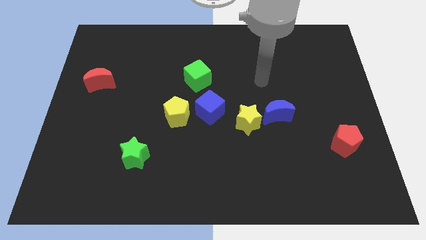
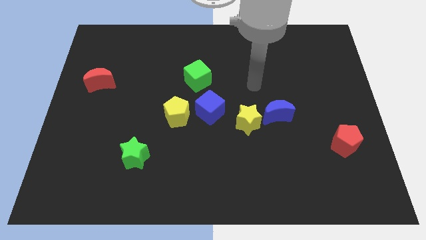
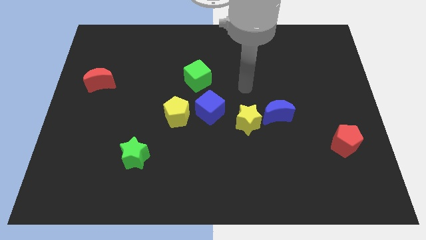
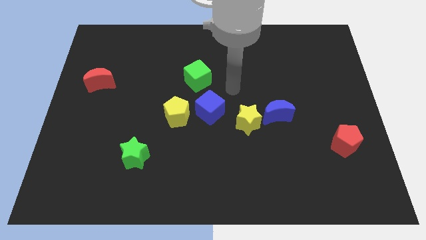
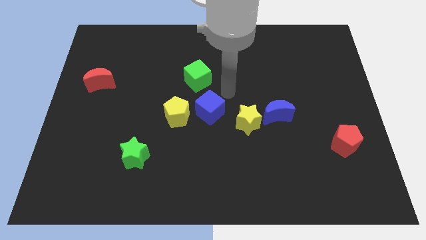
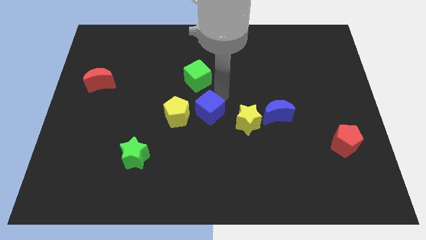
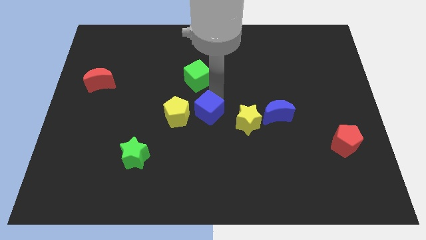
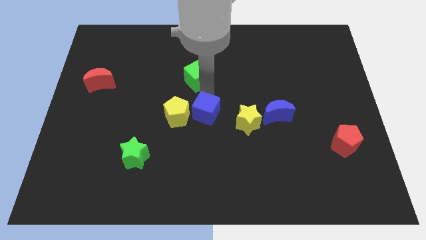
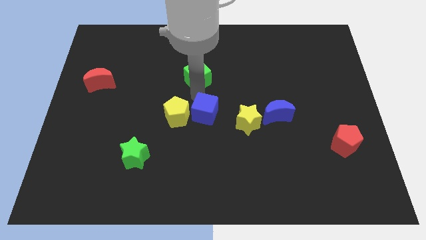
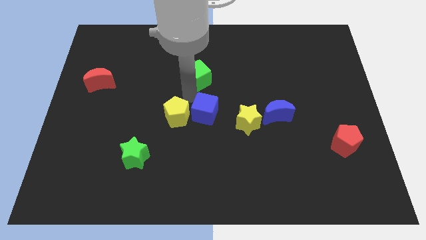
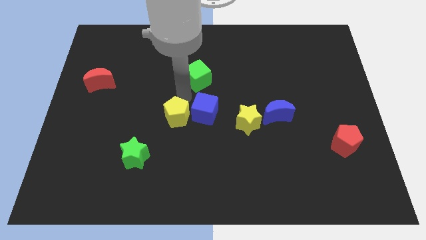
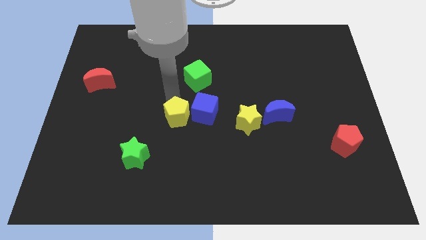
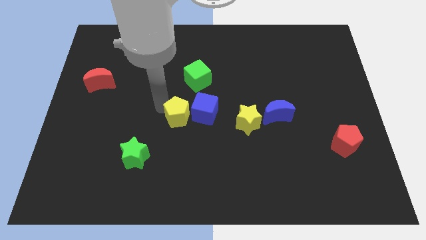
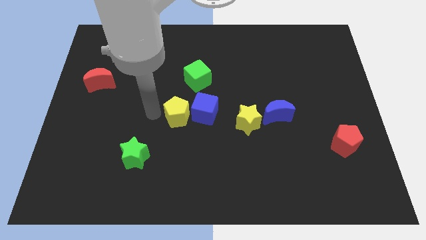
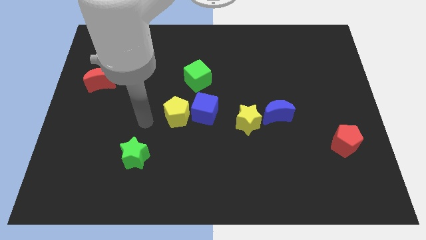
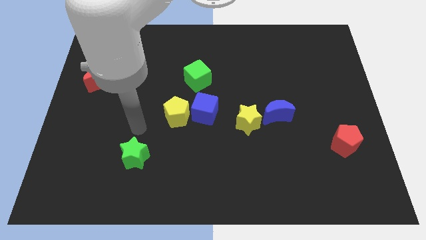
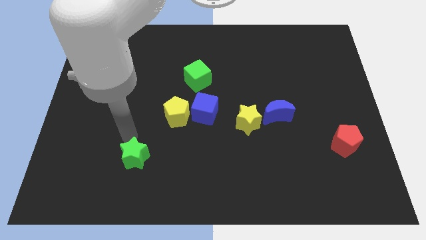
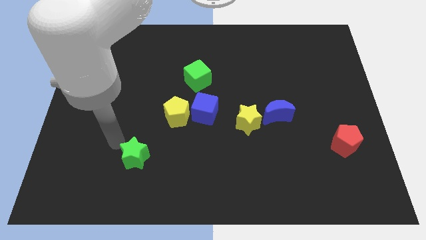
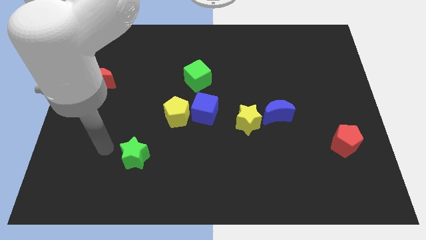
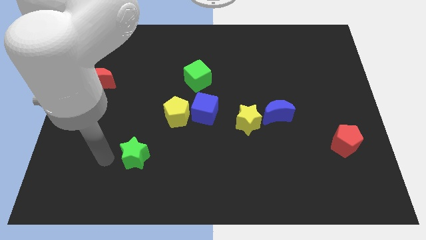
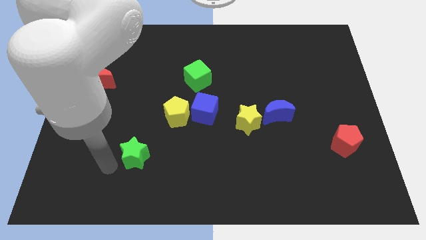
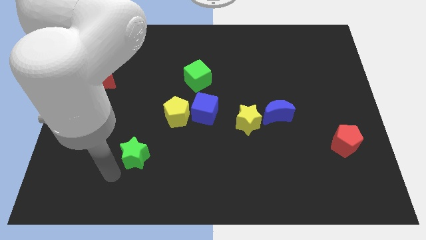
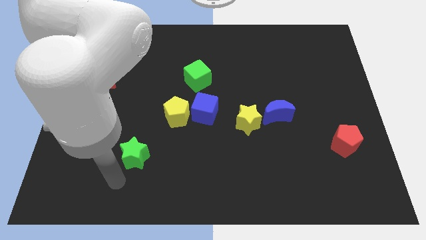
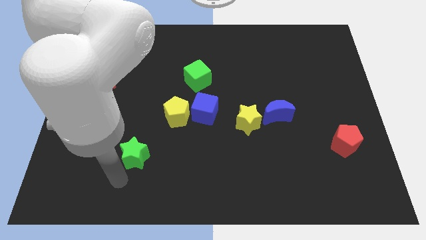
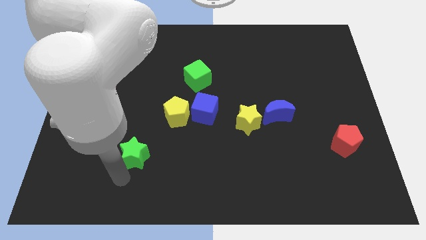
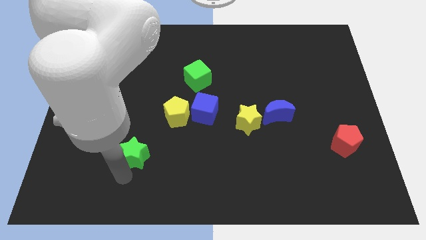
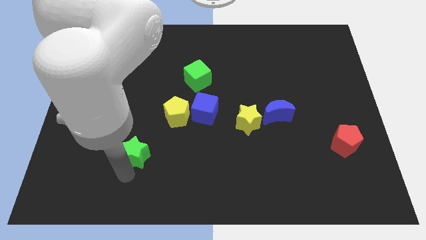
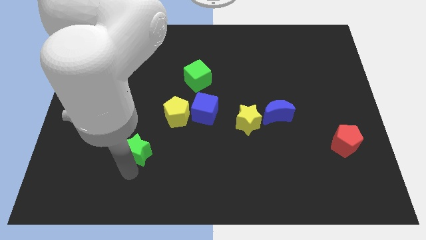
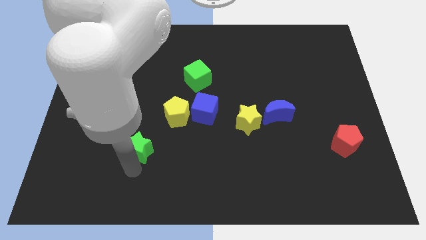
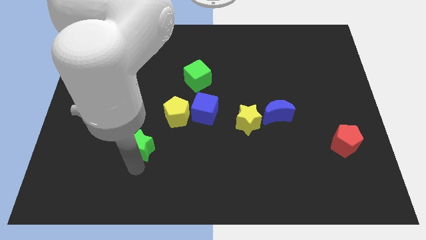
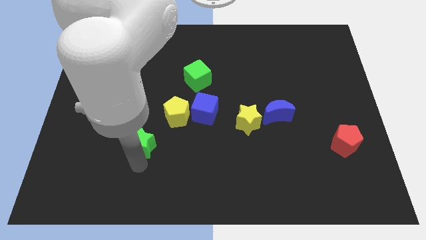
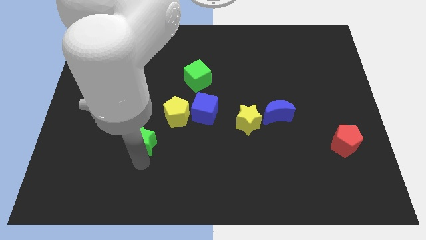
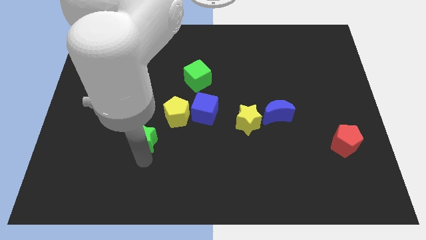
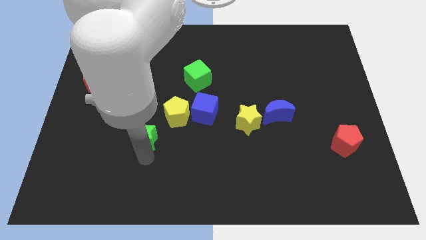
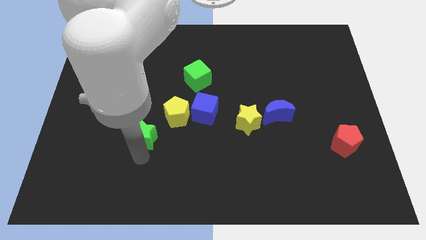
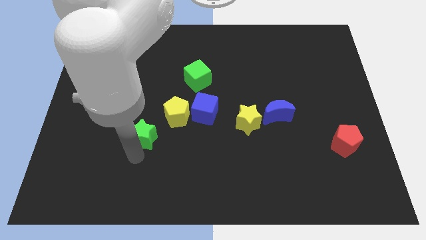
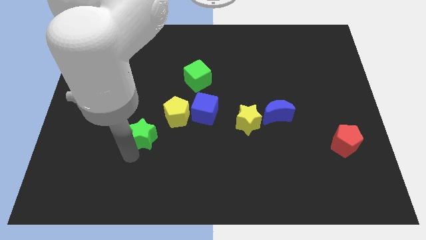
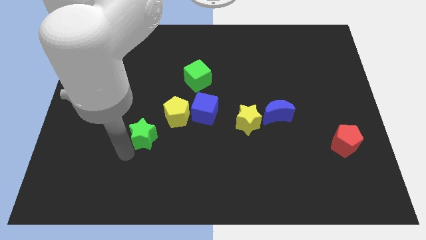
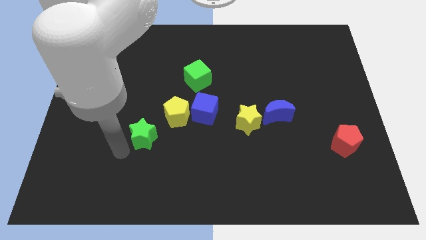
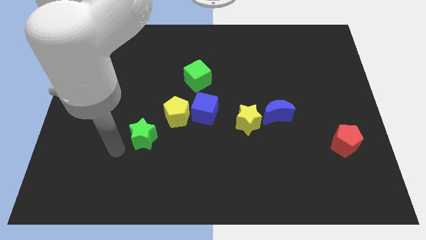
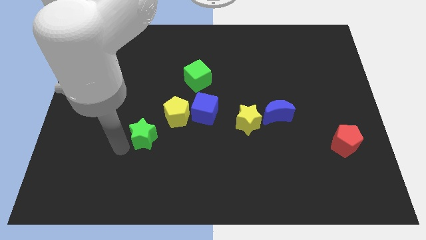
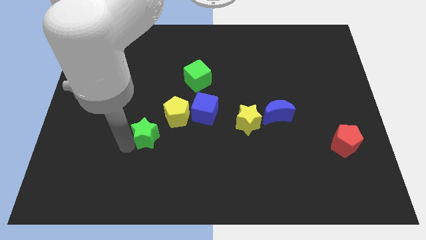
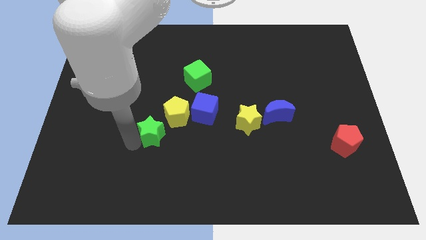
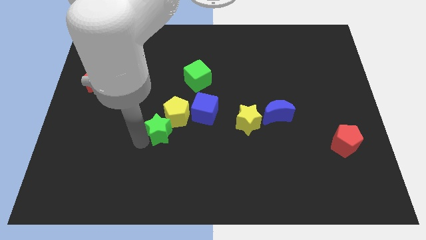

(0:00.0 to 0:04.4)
move the green star close to the yellow pentagon

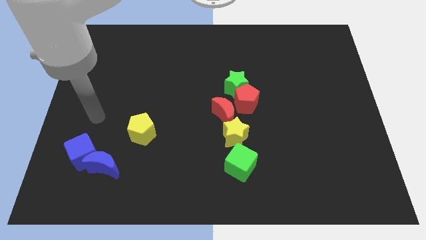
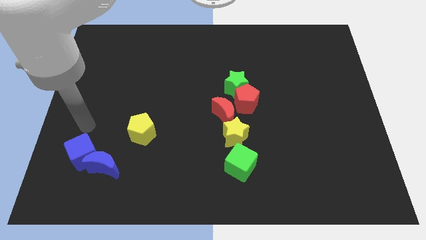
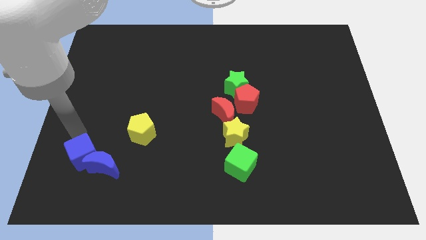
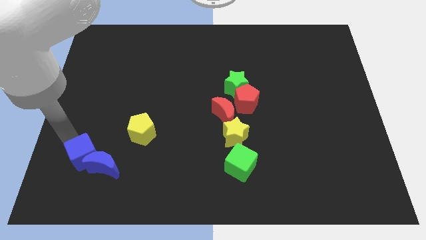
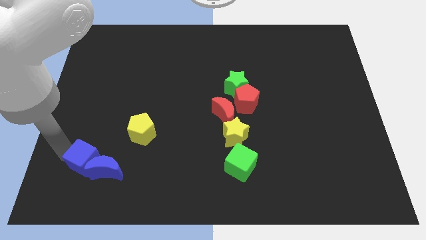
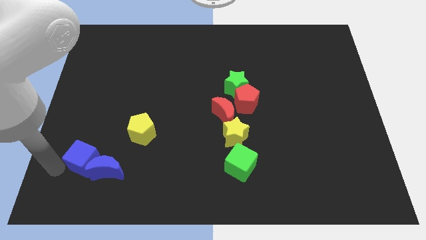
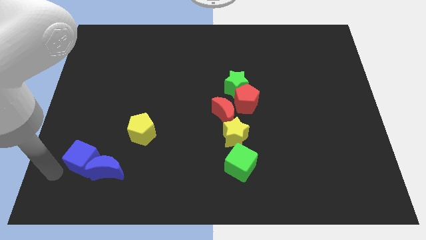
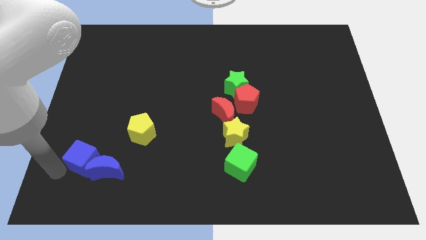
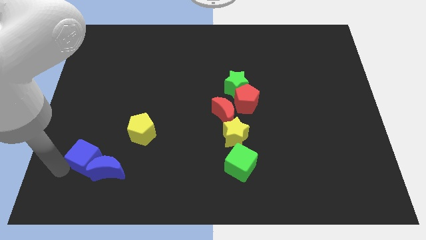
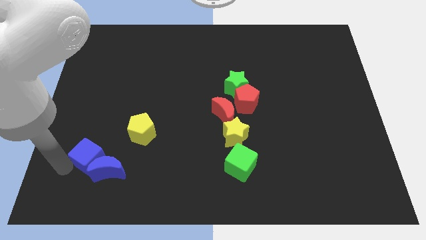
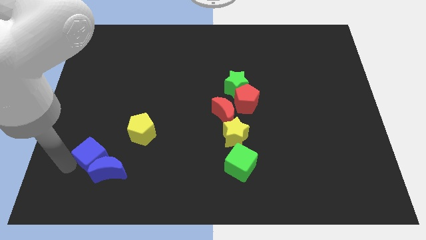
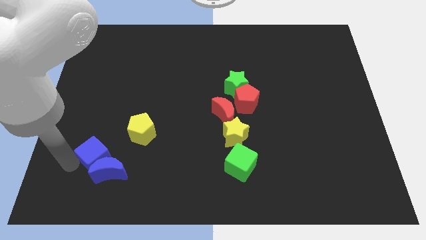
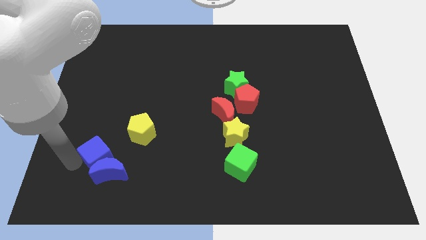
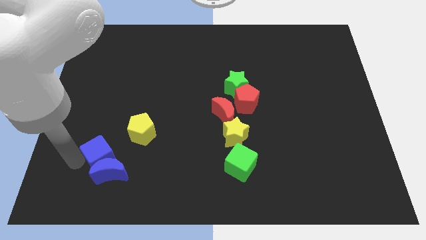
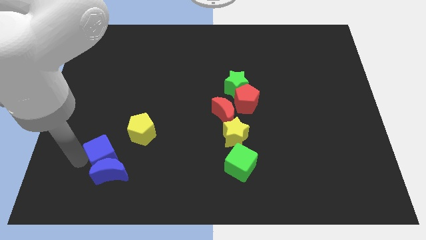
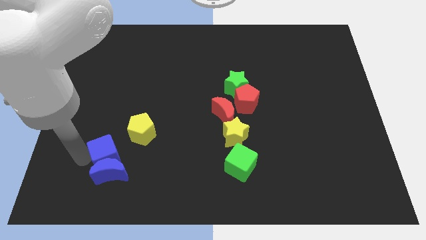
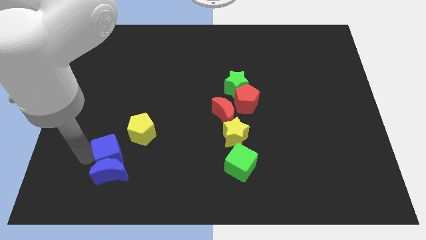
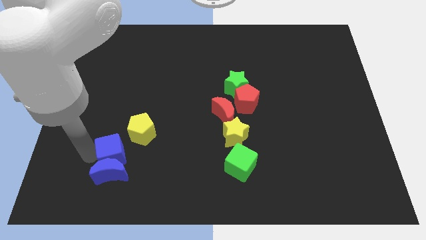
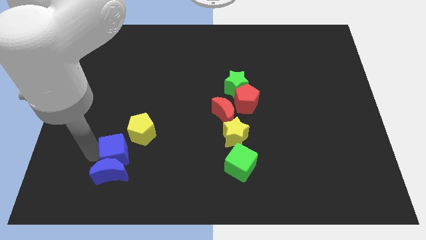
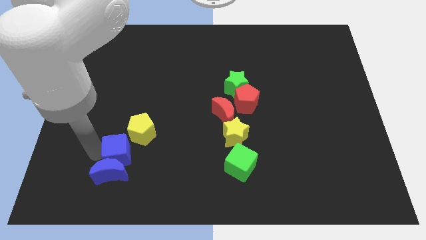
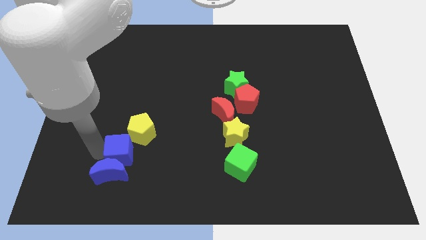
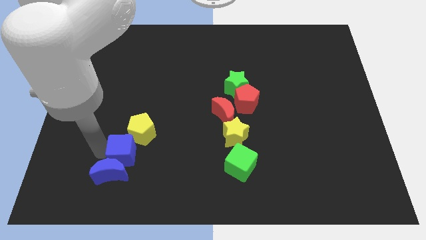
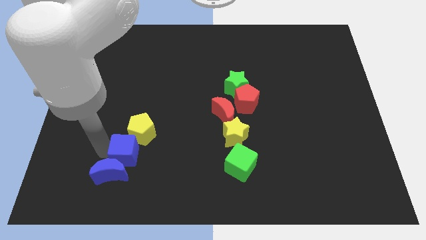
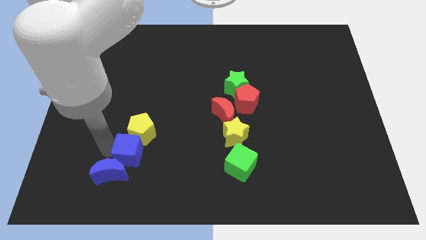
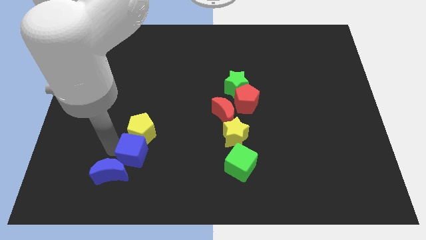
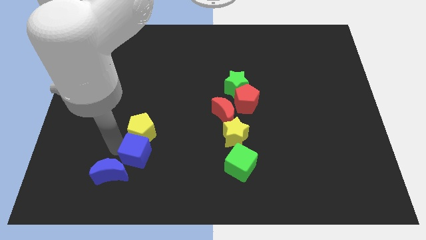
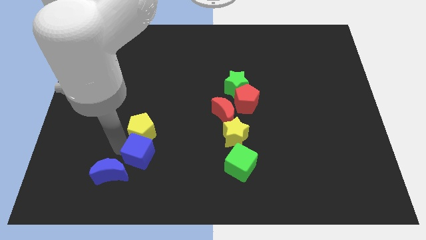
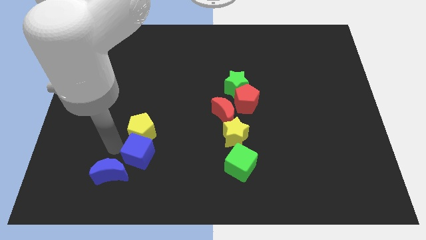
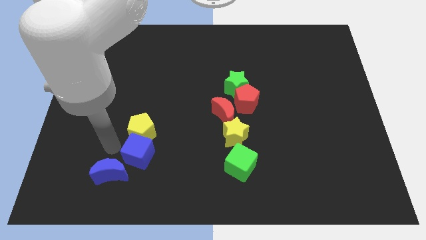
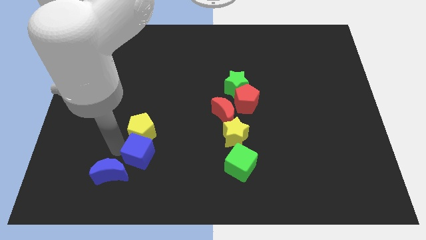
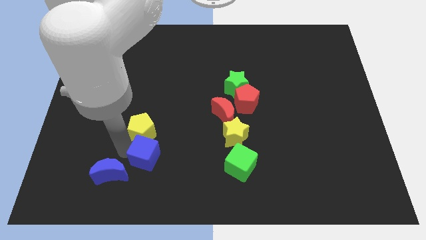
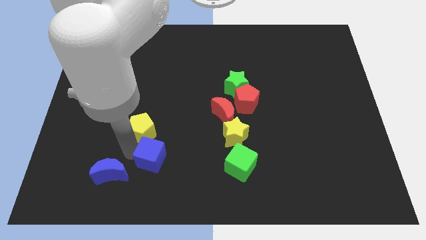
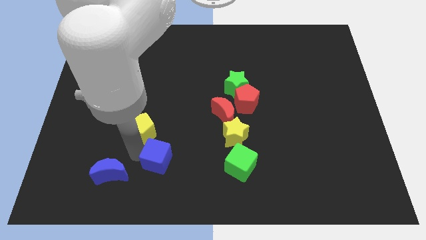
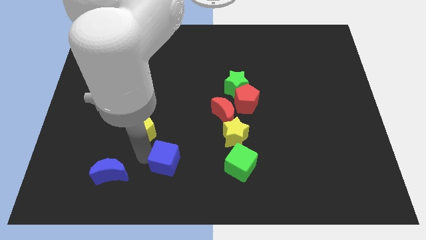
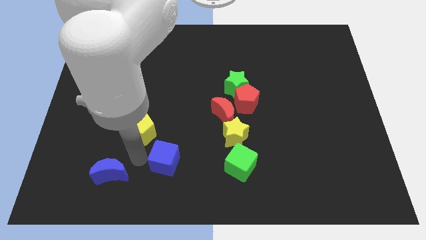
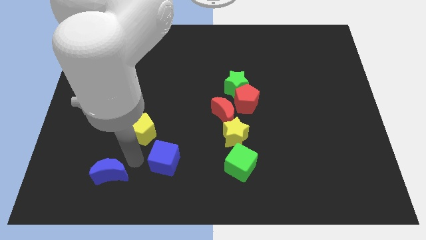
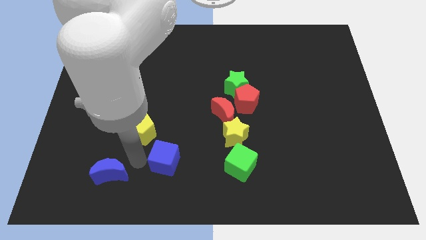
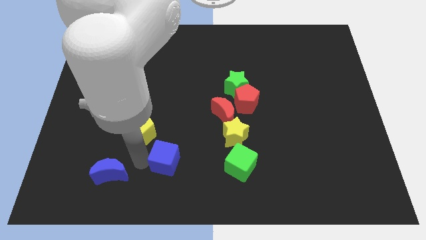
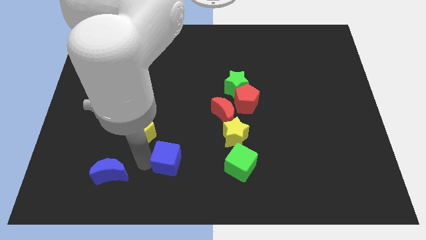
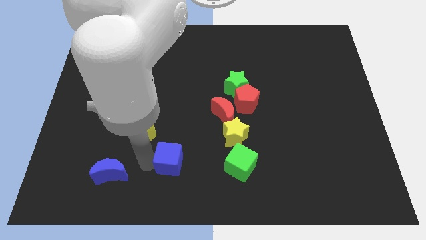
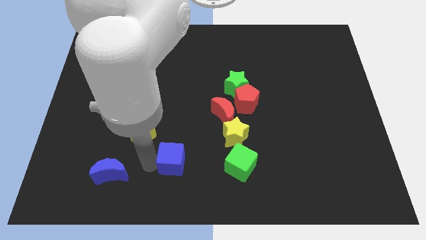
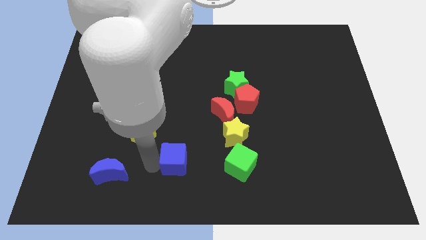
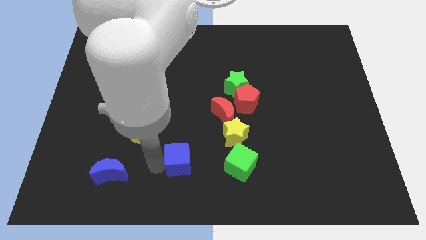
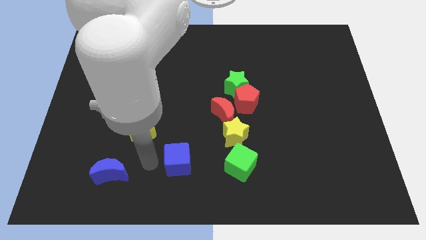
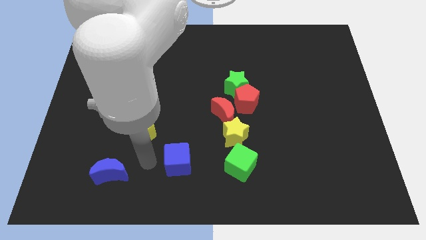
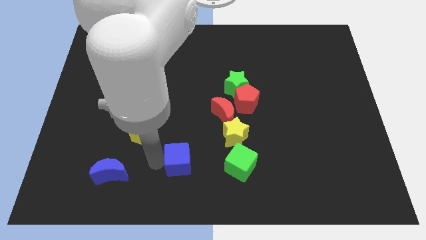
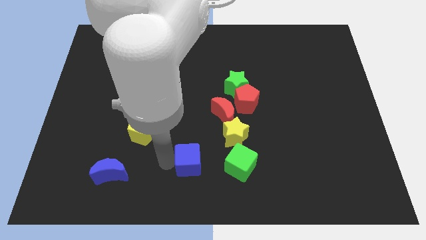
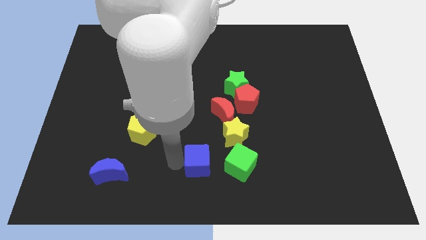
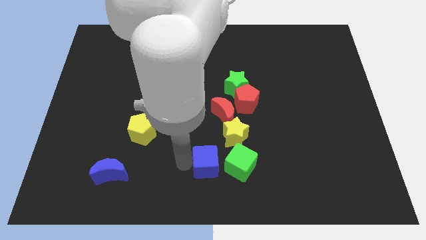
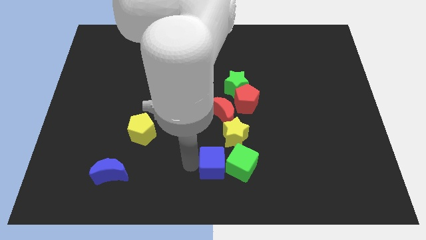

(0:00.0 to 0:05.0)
slide the blue cube to the green cube
